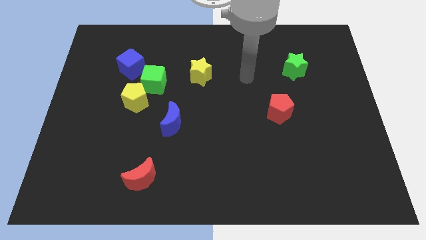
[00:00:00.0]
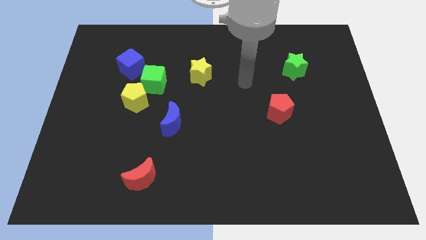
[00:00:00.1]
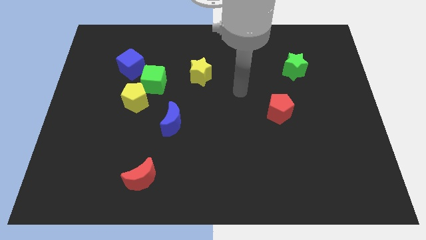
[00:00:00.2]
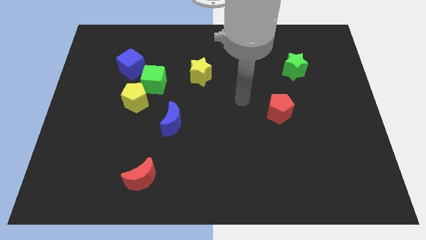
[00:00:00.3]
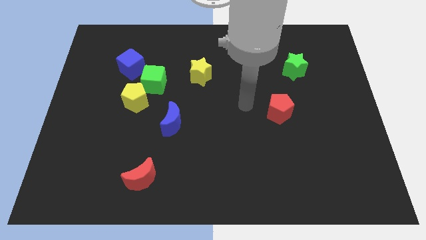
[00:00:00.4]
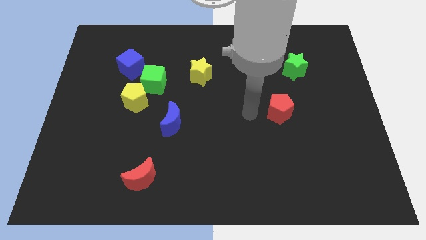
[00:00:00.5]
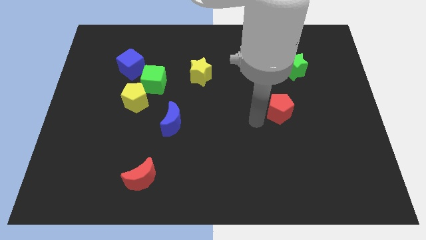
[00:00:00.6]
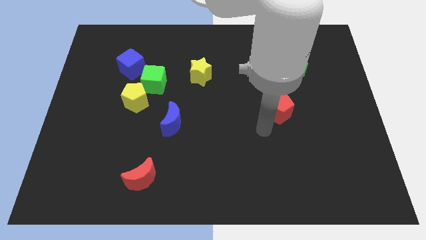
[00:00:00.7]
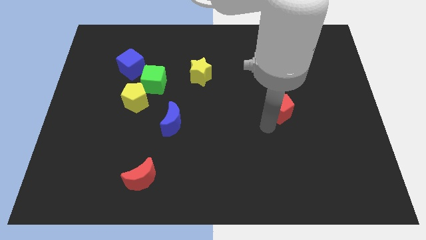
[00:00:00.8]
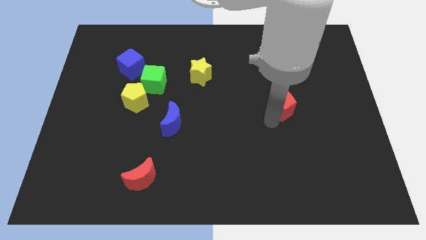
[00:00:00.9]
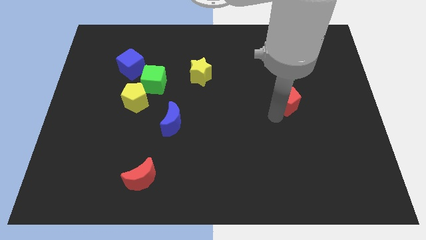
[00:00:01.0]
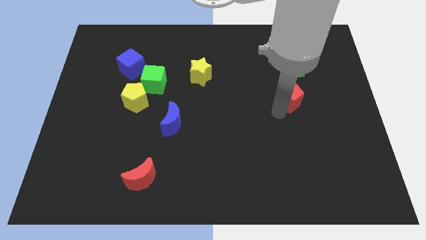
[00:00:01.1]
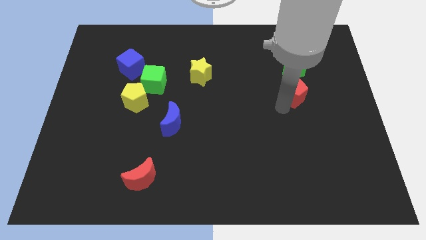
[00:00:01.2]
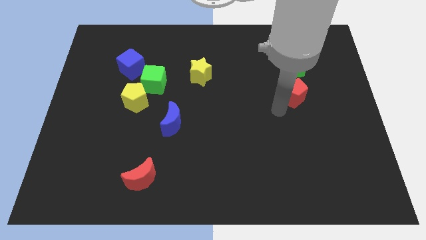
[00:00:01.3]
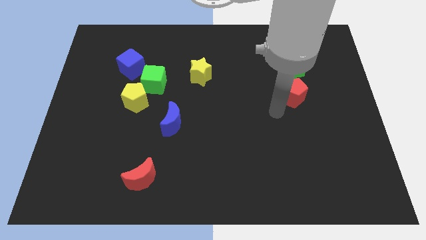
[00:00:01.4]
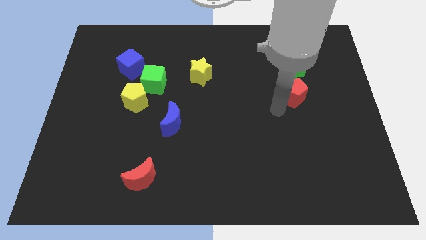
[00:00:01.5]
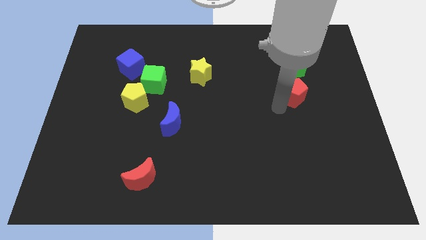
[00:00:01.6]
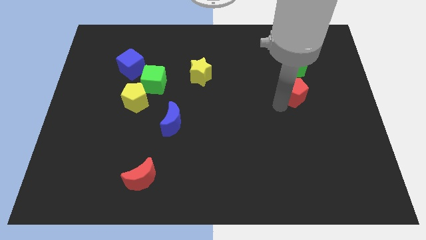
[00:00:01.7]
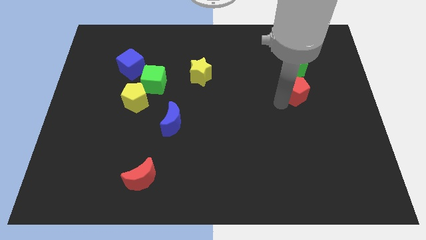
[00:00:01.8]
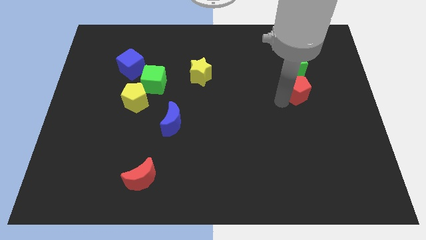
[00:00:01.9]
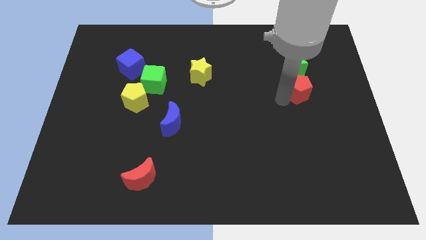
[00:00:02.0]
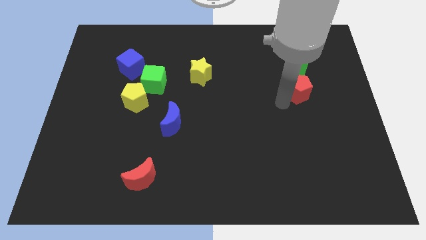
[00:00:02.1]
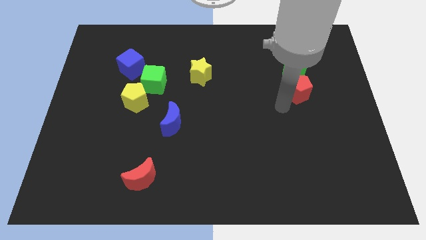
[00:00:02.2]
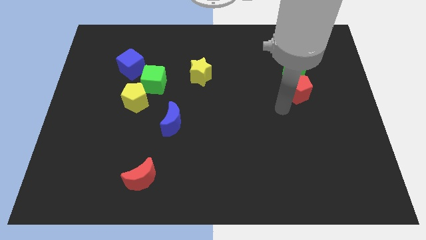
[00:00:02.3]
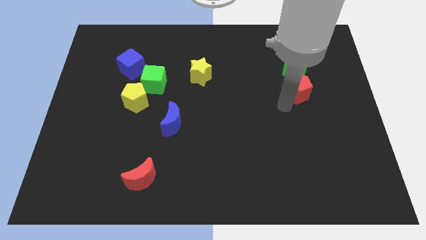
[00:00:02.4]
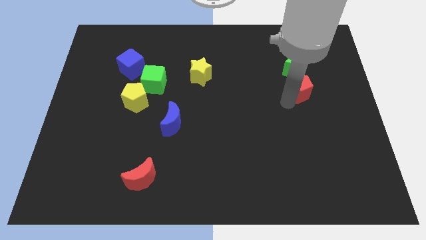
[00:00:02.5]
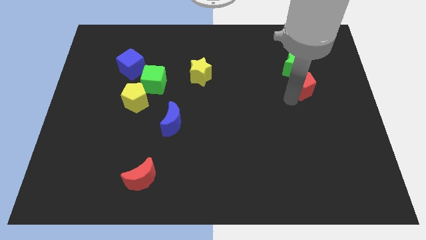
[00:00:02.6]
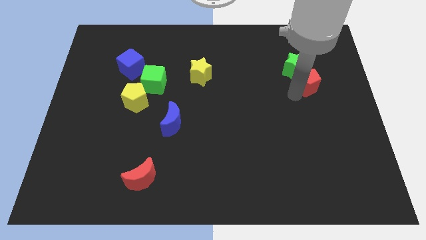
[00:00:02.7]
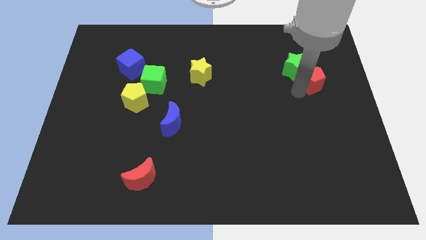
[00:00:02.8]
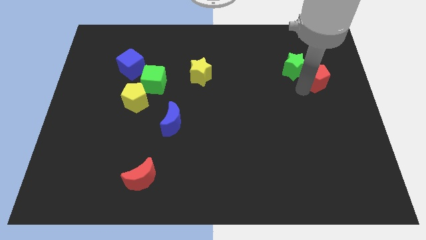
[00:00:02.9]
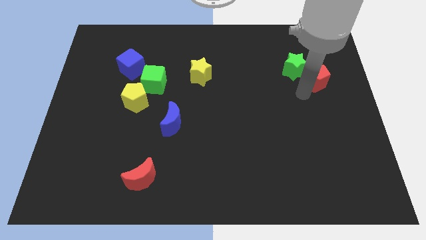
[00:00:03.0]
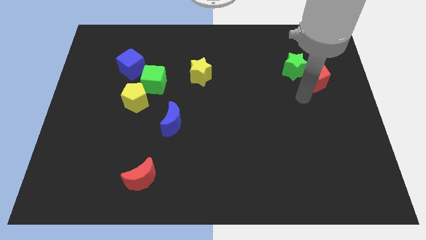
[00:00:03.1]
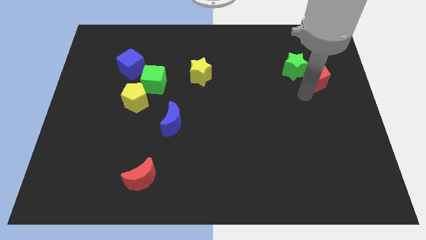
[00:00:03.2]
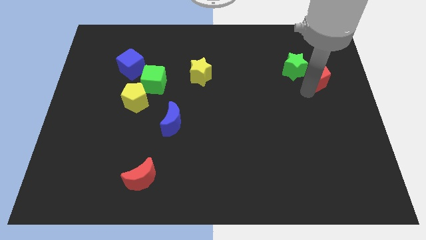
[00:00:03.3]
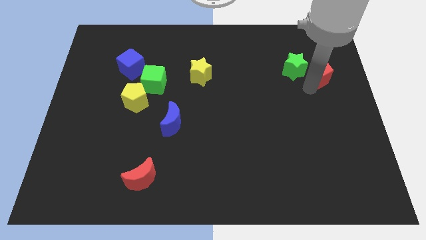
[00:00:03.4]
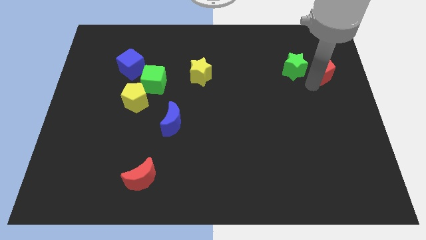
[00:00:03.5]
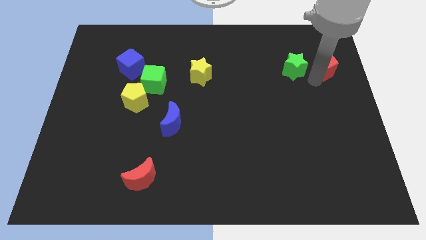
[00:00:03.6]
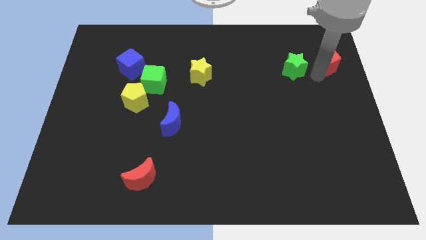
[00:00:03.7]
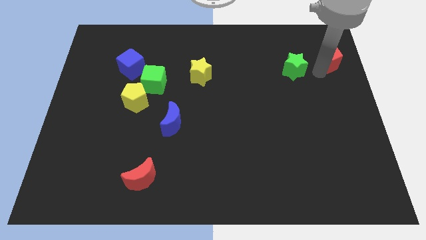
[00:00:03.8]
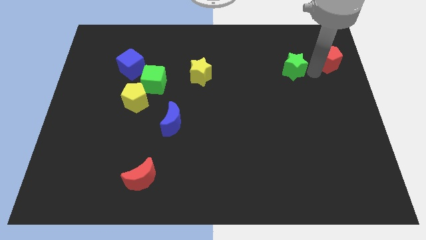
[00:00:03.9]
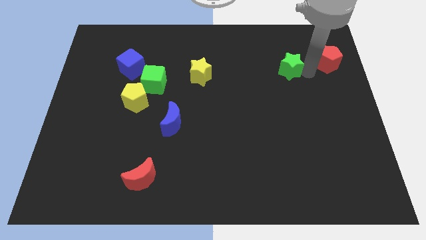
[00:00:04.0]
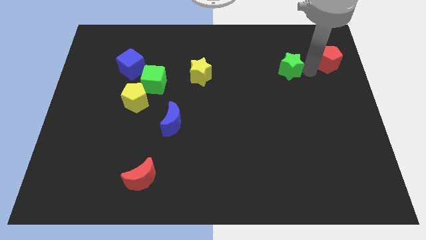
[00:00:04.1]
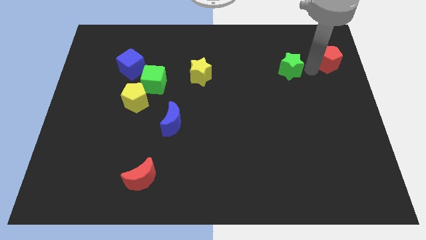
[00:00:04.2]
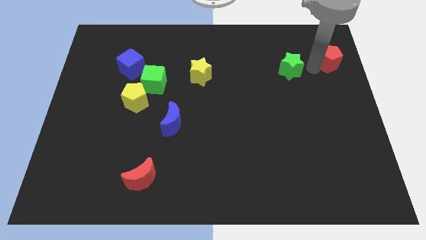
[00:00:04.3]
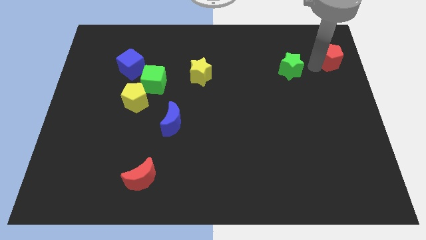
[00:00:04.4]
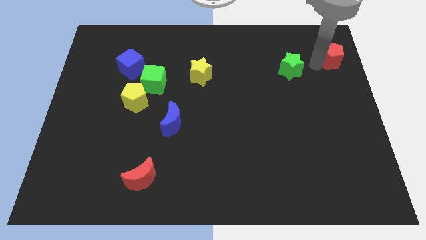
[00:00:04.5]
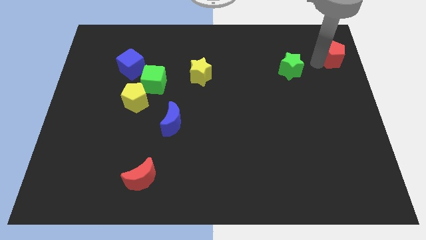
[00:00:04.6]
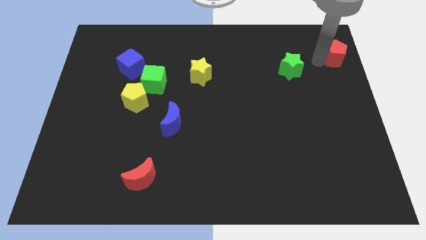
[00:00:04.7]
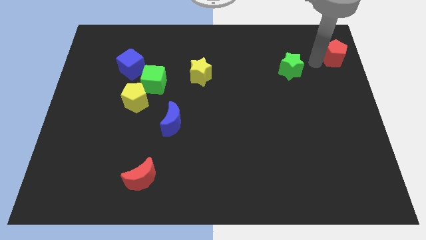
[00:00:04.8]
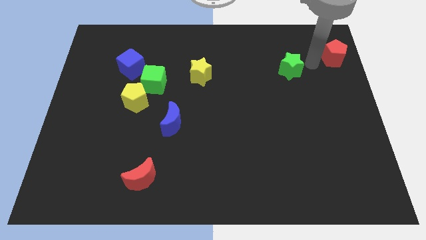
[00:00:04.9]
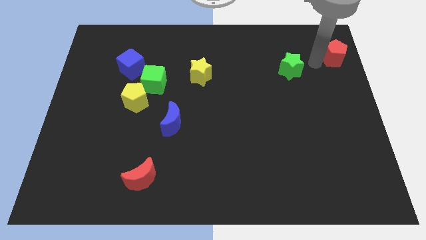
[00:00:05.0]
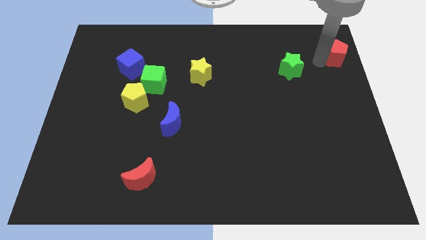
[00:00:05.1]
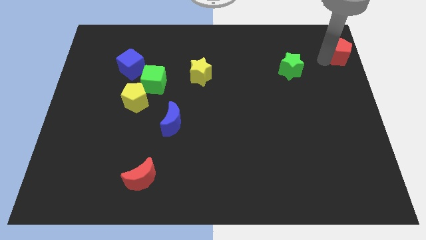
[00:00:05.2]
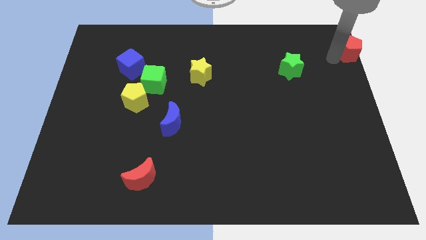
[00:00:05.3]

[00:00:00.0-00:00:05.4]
put the red pentagon to the top right corner

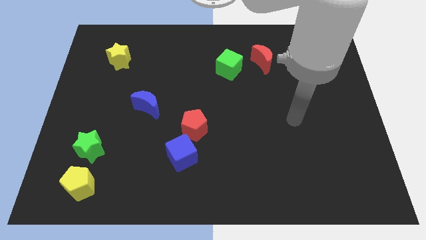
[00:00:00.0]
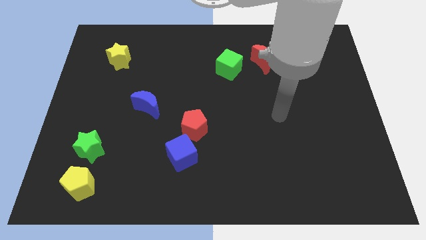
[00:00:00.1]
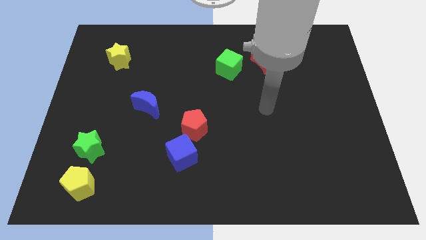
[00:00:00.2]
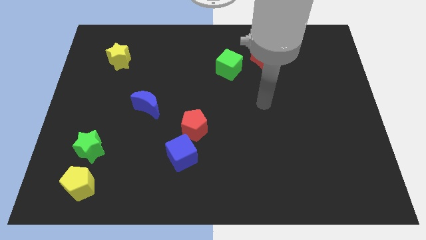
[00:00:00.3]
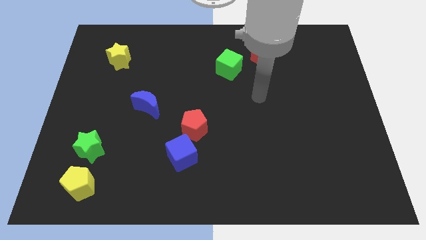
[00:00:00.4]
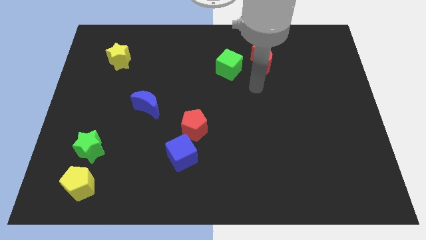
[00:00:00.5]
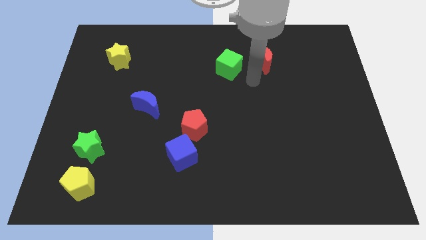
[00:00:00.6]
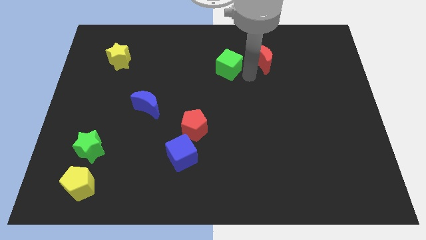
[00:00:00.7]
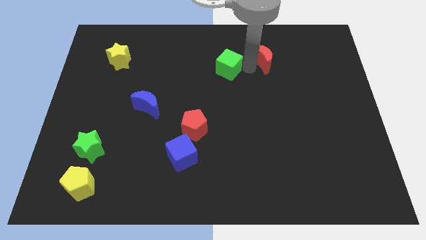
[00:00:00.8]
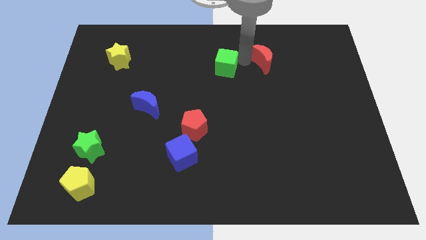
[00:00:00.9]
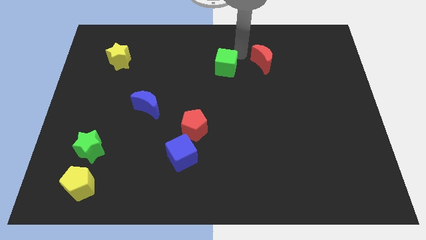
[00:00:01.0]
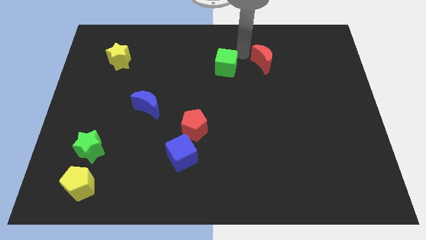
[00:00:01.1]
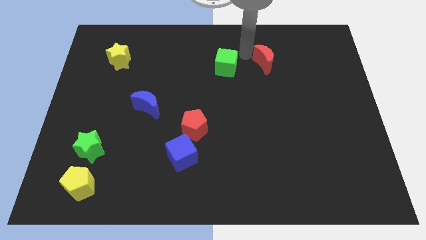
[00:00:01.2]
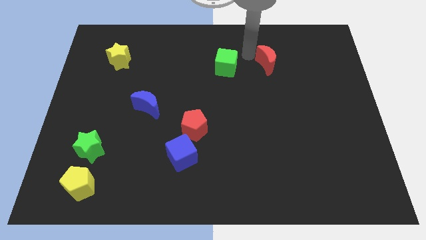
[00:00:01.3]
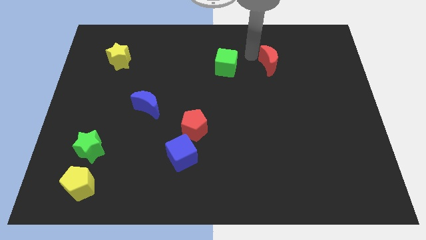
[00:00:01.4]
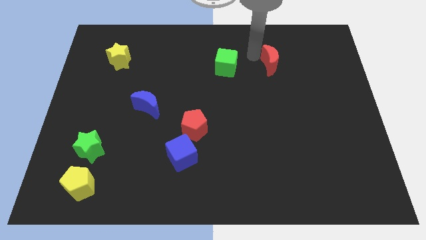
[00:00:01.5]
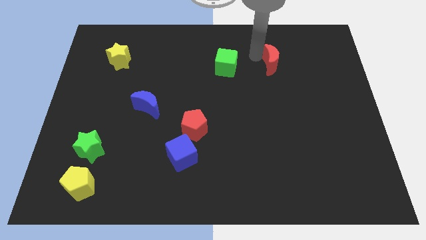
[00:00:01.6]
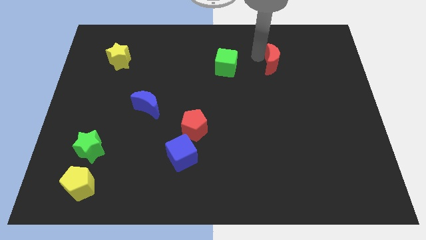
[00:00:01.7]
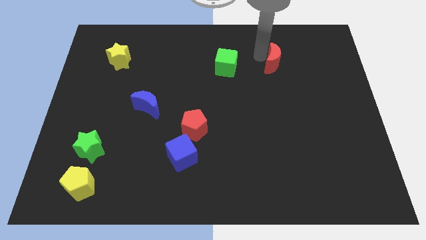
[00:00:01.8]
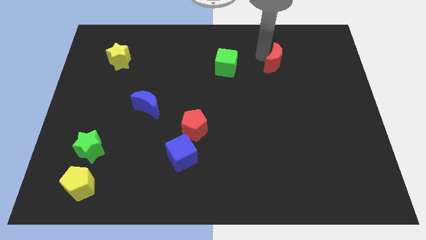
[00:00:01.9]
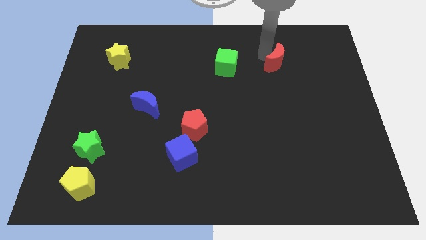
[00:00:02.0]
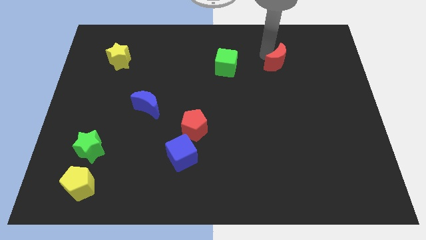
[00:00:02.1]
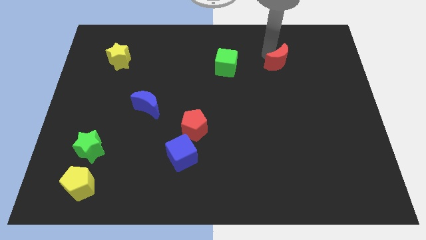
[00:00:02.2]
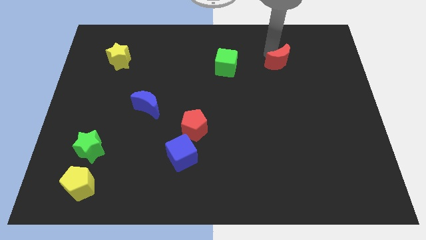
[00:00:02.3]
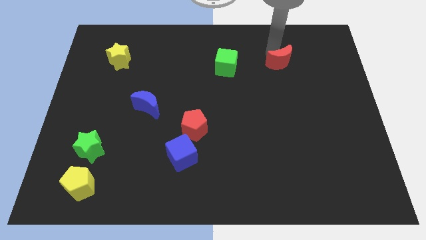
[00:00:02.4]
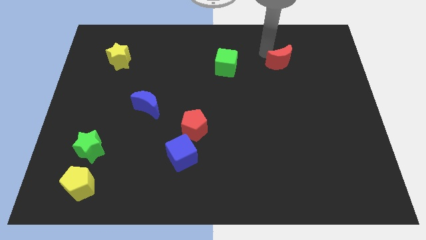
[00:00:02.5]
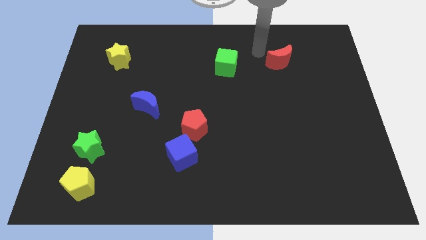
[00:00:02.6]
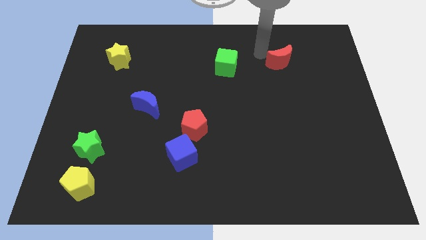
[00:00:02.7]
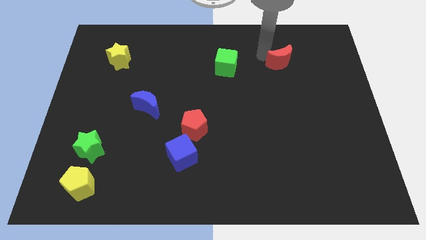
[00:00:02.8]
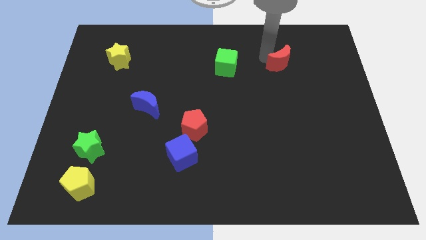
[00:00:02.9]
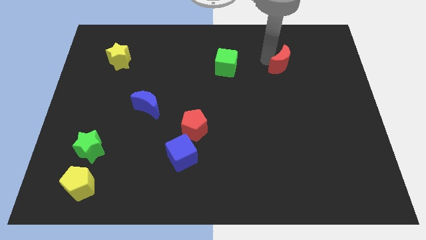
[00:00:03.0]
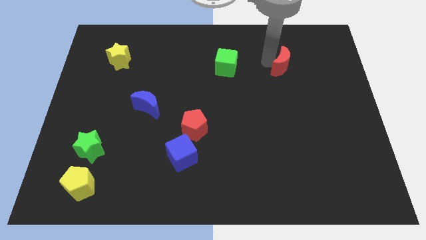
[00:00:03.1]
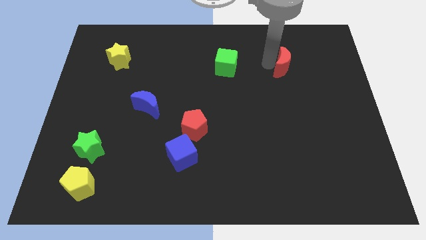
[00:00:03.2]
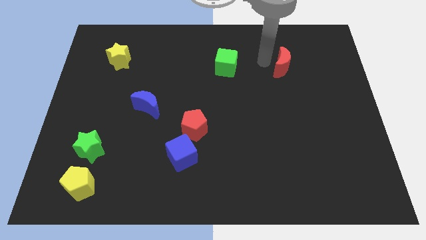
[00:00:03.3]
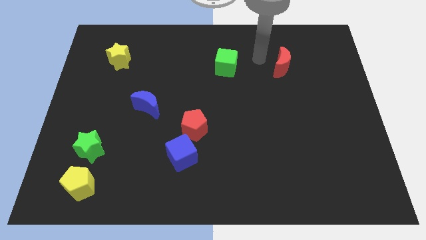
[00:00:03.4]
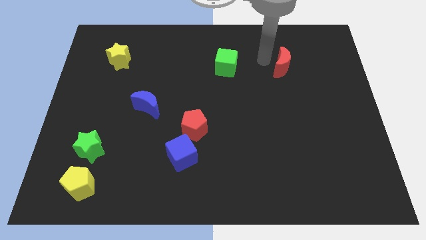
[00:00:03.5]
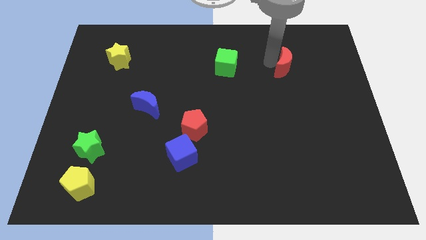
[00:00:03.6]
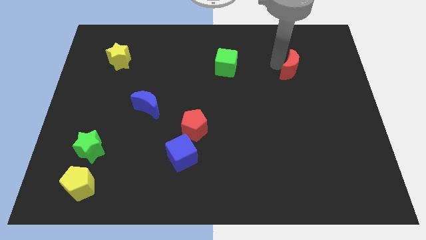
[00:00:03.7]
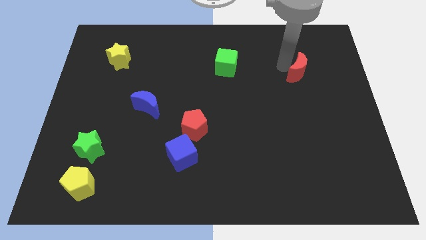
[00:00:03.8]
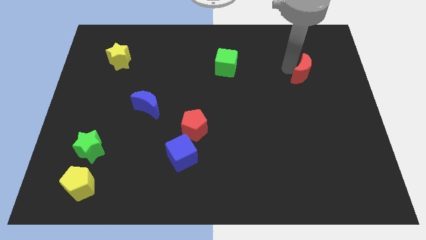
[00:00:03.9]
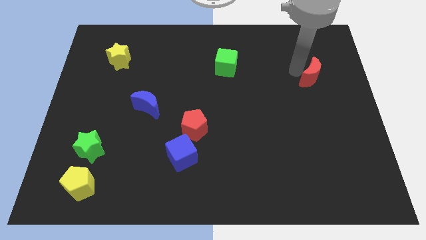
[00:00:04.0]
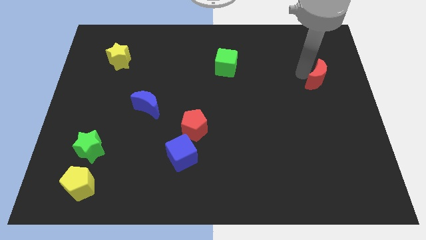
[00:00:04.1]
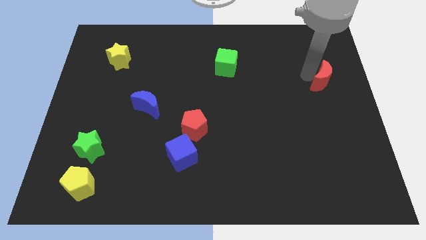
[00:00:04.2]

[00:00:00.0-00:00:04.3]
move the red moon to the center right
